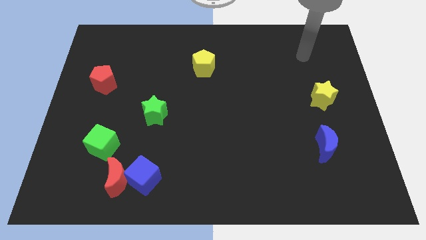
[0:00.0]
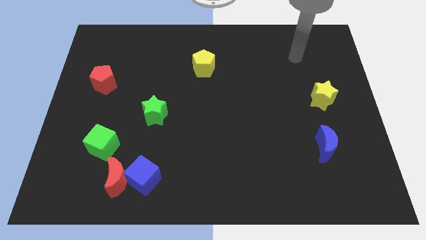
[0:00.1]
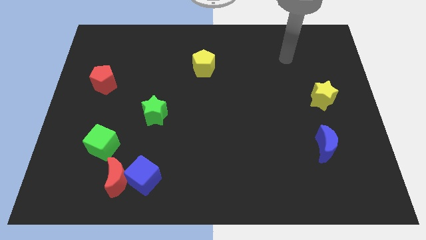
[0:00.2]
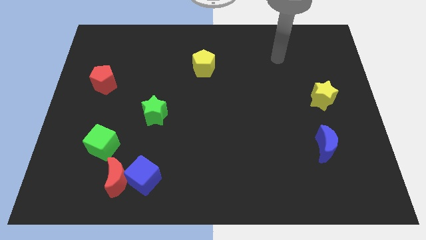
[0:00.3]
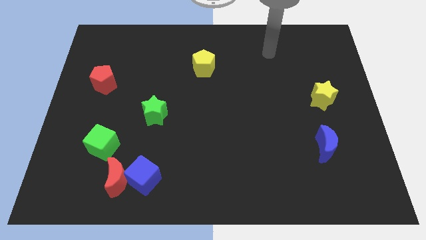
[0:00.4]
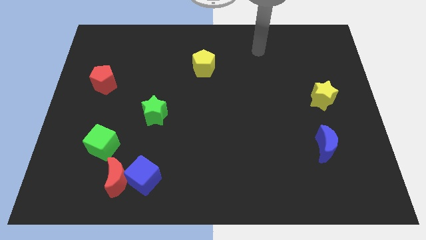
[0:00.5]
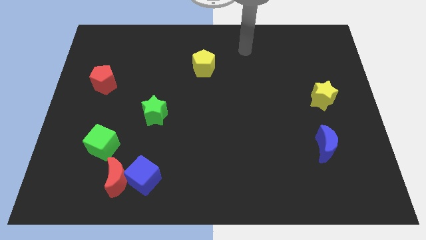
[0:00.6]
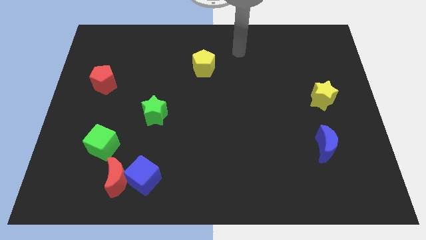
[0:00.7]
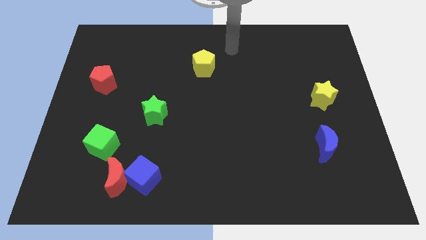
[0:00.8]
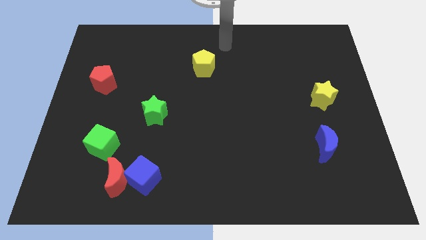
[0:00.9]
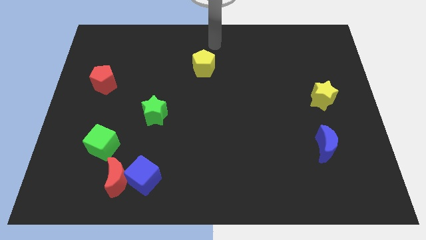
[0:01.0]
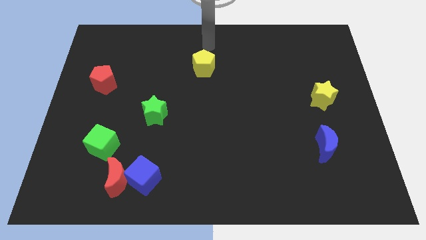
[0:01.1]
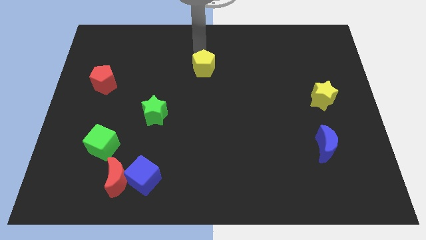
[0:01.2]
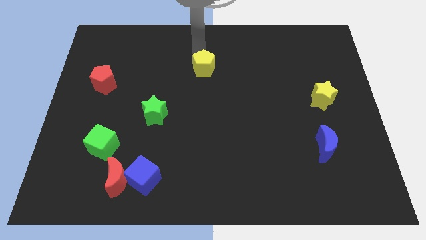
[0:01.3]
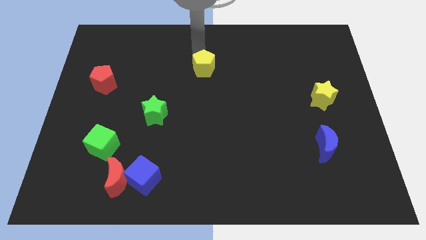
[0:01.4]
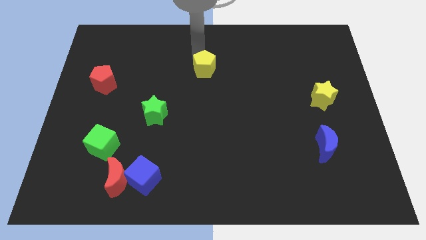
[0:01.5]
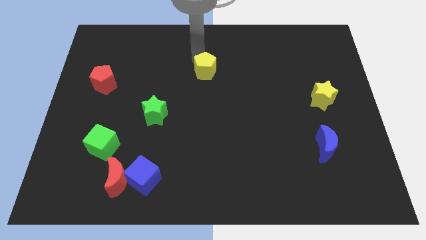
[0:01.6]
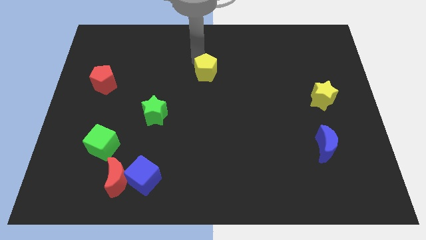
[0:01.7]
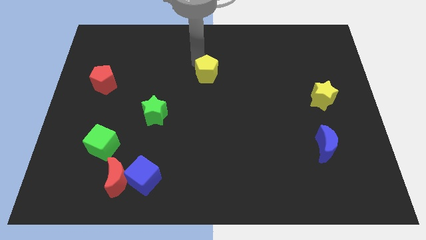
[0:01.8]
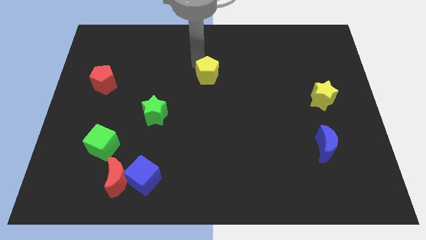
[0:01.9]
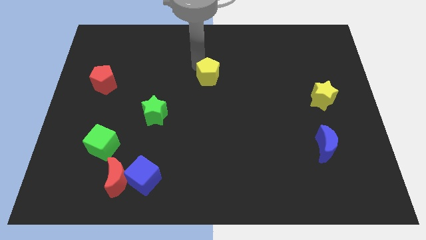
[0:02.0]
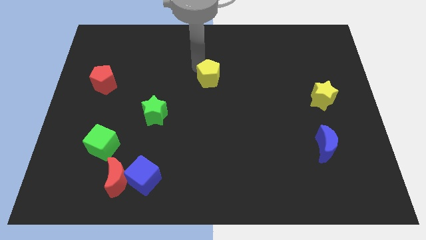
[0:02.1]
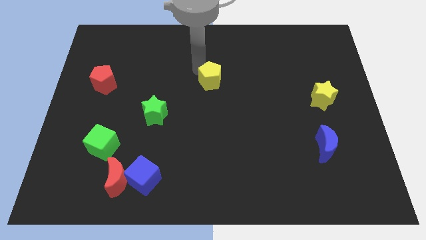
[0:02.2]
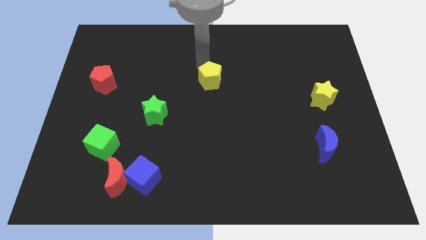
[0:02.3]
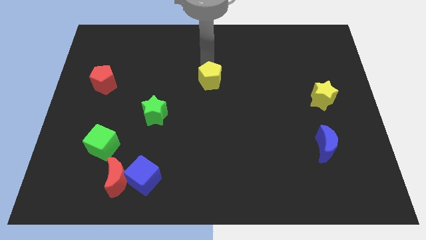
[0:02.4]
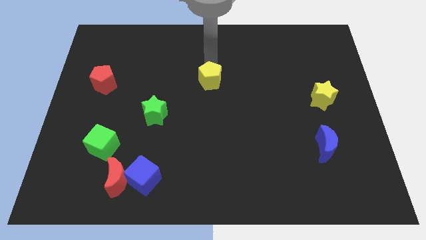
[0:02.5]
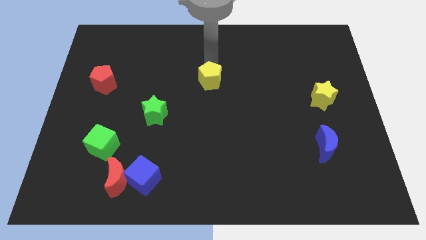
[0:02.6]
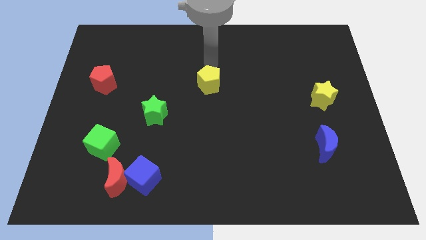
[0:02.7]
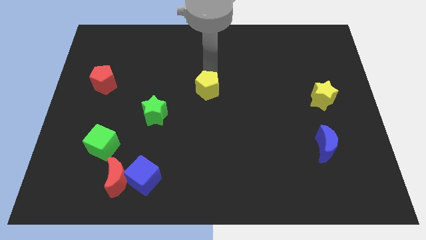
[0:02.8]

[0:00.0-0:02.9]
move the yellow pentagon somewhat downwards

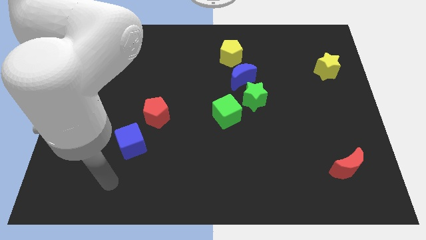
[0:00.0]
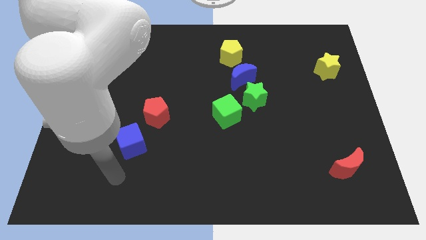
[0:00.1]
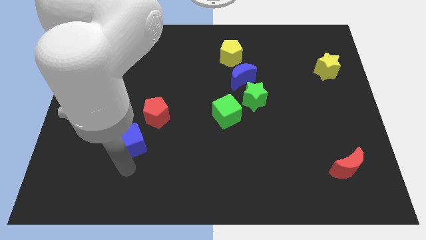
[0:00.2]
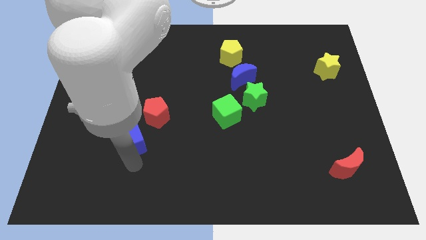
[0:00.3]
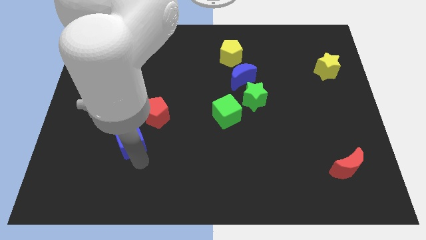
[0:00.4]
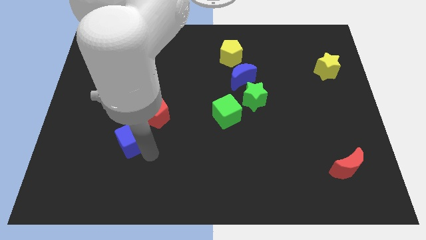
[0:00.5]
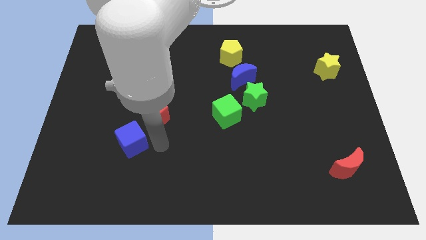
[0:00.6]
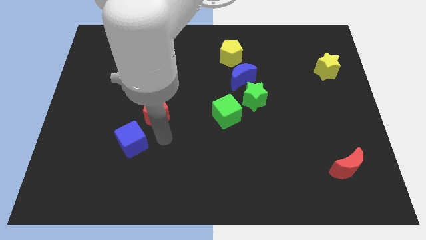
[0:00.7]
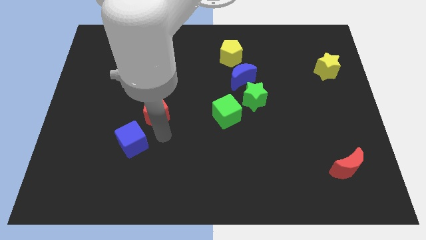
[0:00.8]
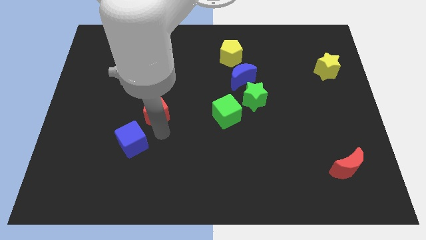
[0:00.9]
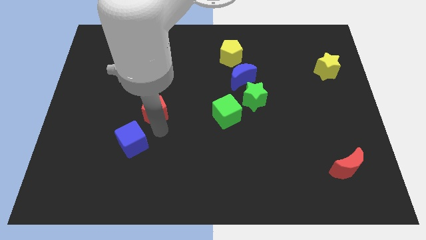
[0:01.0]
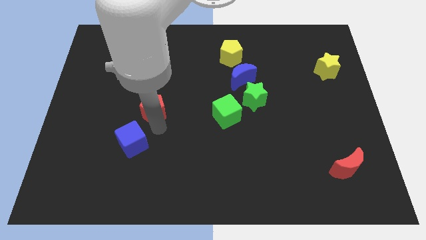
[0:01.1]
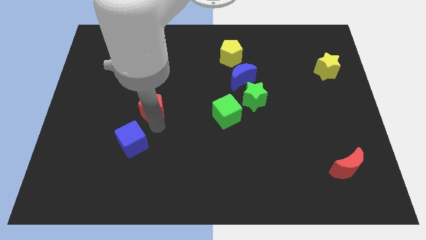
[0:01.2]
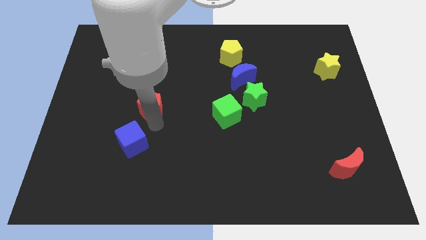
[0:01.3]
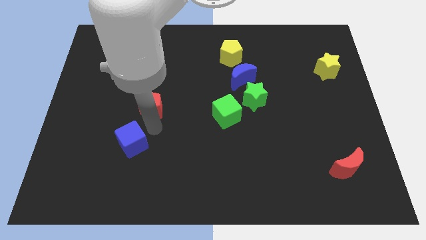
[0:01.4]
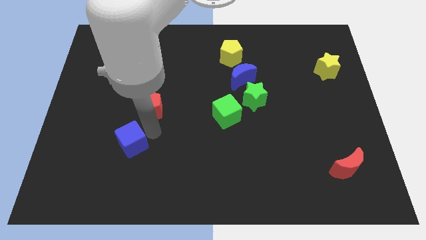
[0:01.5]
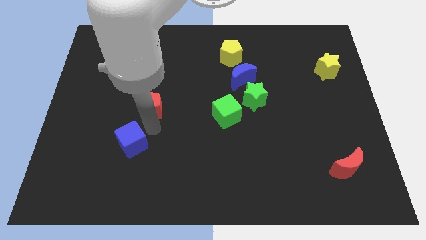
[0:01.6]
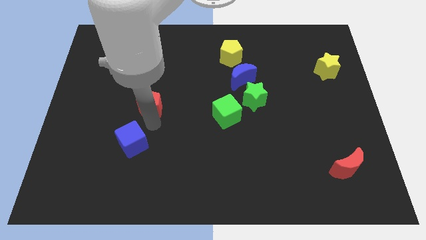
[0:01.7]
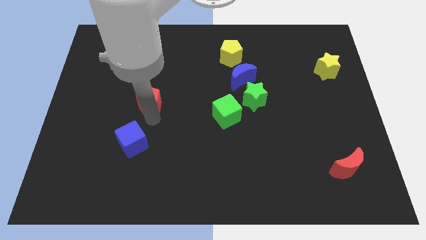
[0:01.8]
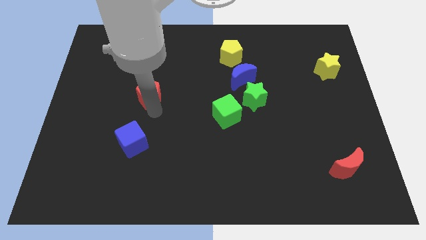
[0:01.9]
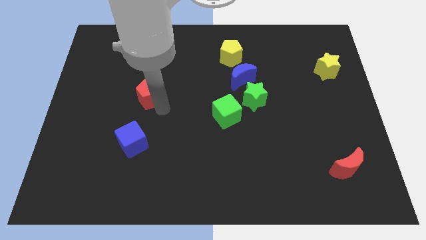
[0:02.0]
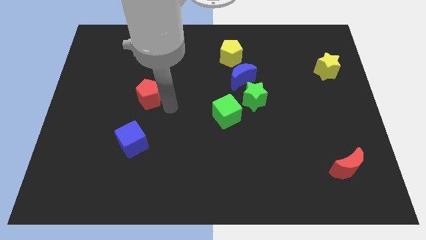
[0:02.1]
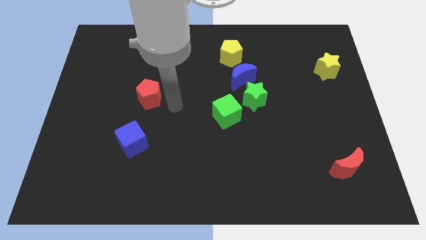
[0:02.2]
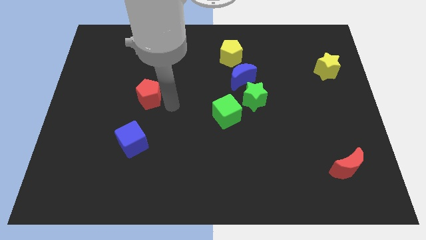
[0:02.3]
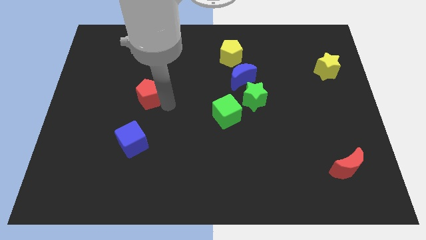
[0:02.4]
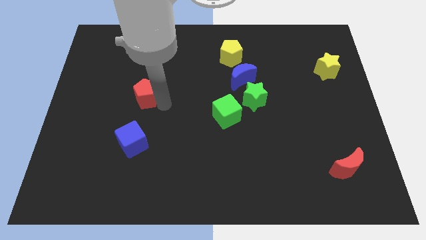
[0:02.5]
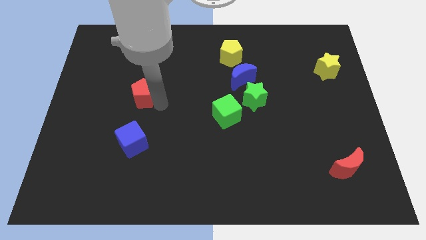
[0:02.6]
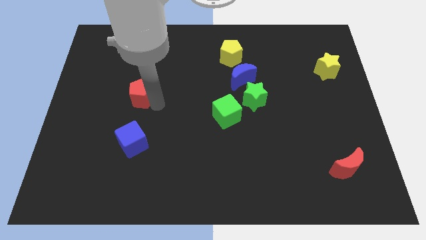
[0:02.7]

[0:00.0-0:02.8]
slightly slide the red pentagon up and then left

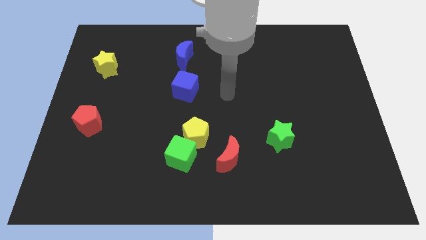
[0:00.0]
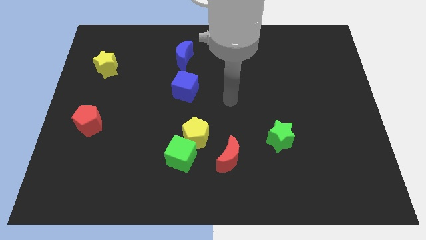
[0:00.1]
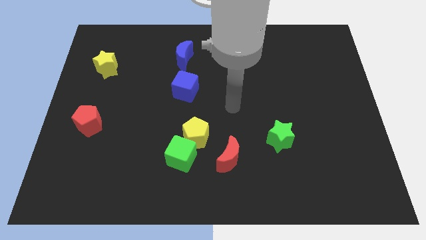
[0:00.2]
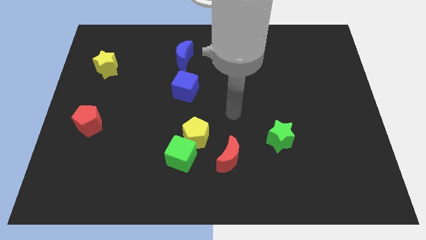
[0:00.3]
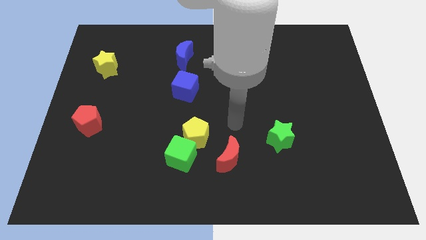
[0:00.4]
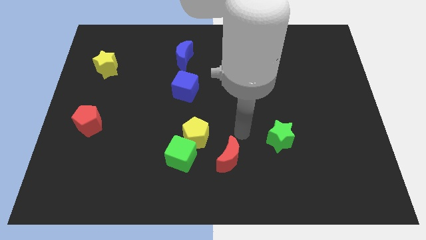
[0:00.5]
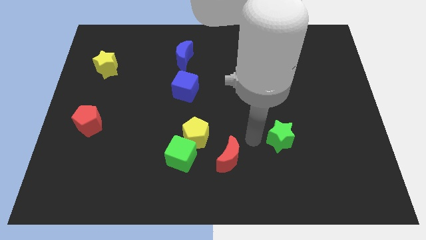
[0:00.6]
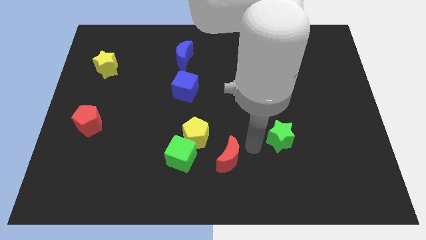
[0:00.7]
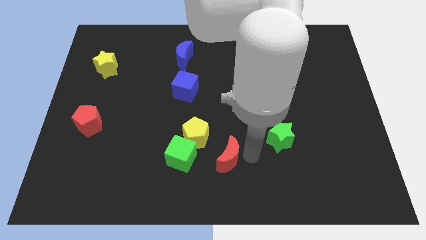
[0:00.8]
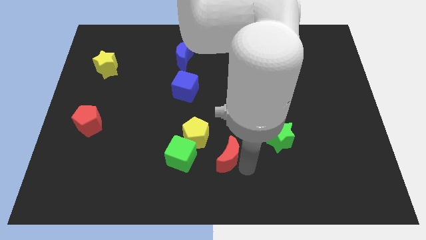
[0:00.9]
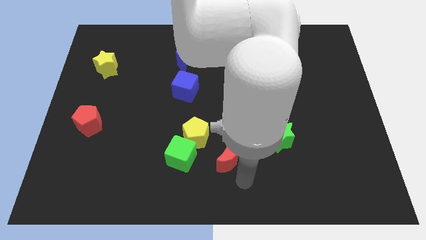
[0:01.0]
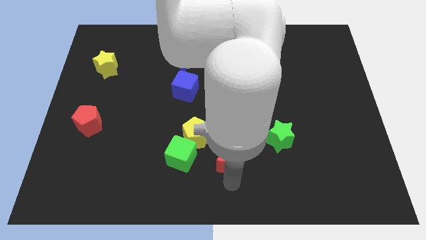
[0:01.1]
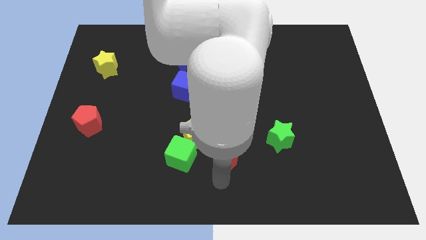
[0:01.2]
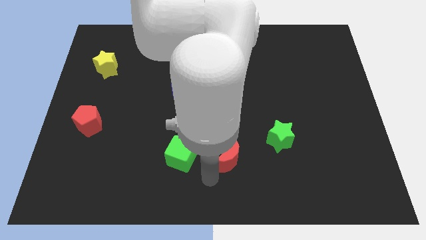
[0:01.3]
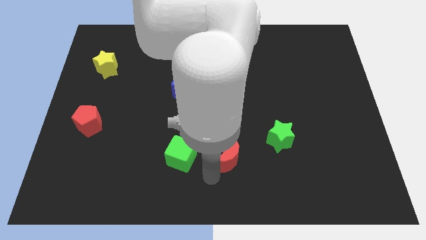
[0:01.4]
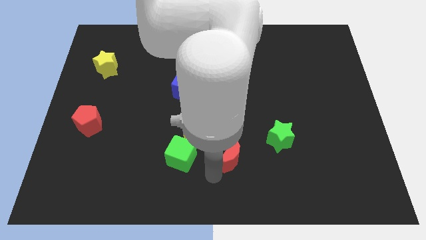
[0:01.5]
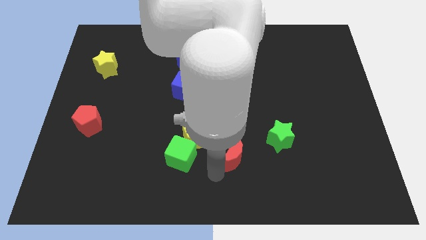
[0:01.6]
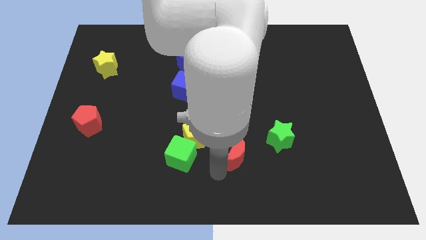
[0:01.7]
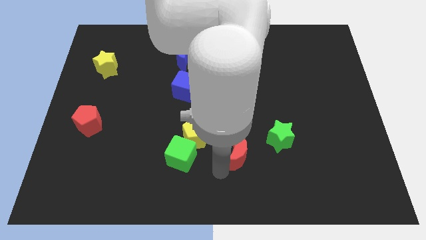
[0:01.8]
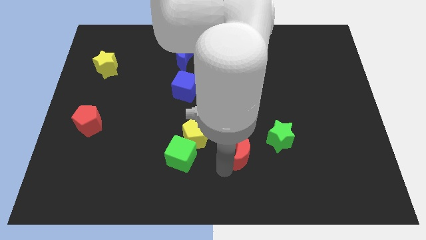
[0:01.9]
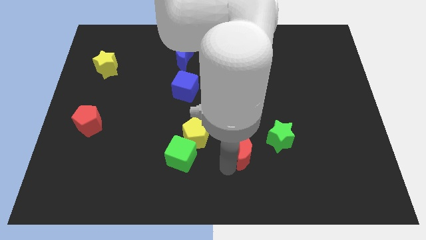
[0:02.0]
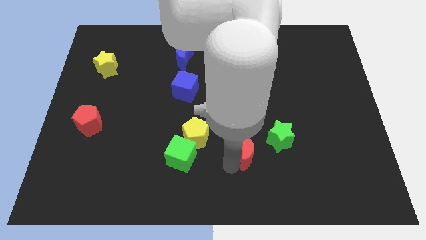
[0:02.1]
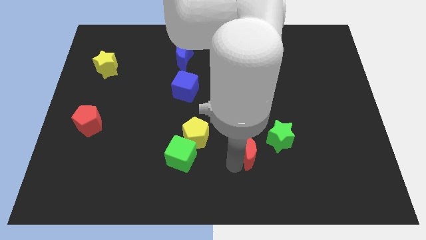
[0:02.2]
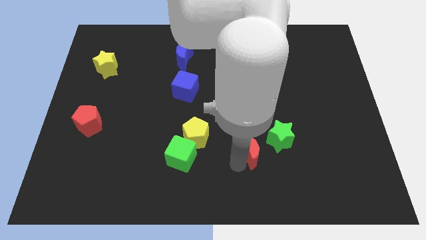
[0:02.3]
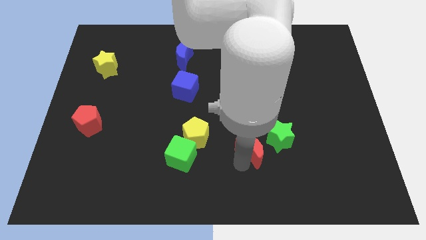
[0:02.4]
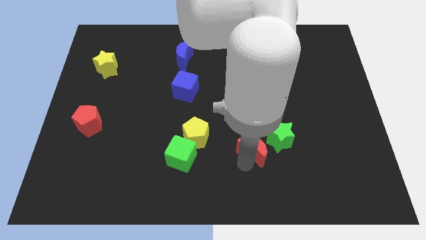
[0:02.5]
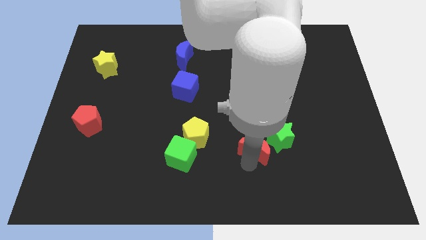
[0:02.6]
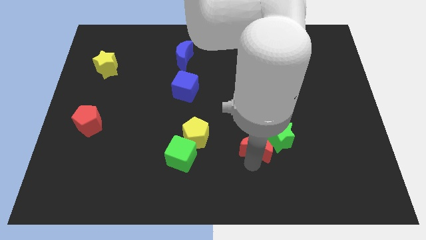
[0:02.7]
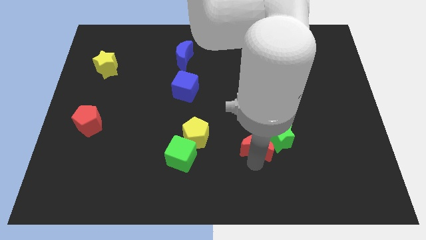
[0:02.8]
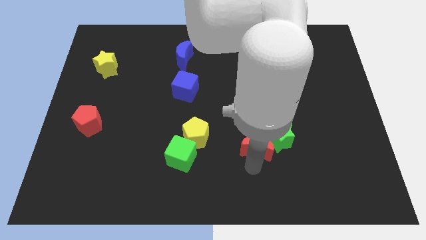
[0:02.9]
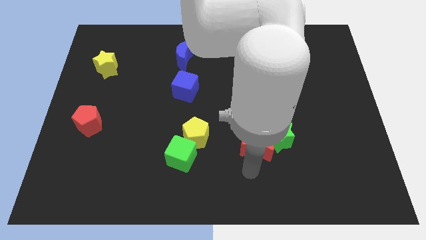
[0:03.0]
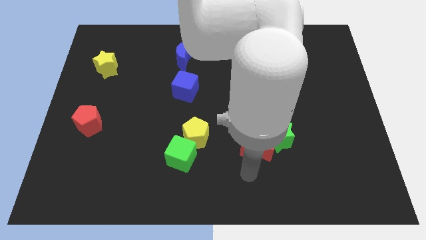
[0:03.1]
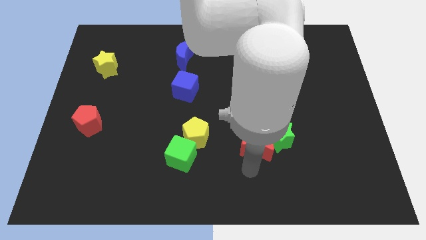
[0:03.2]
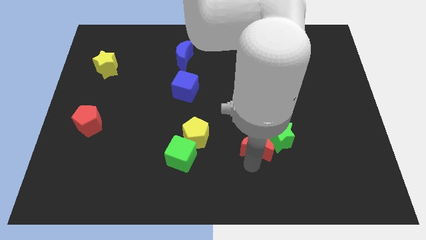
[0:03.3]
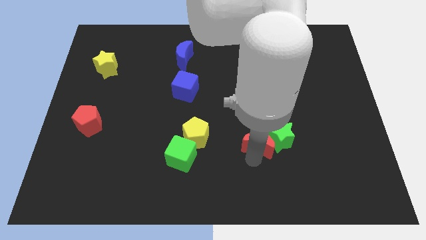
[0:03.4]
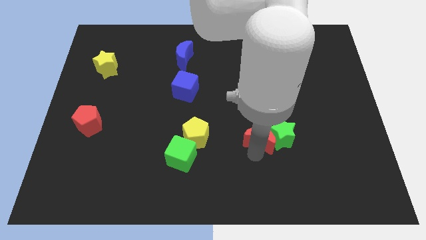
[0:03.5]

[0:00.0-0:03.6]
slightly push the red moon diagonally up and right
